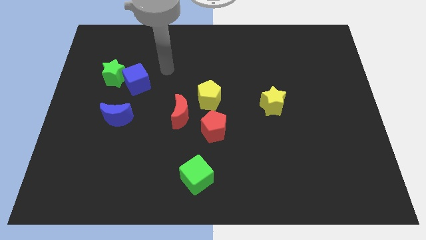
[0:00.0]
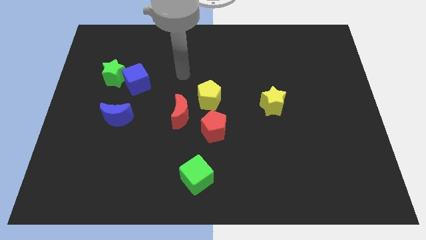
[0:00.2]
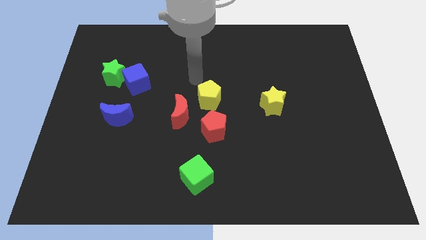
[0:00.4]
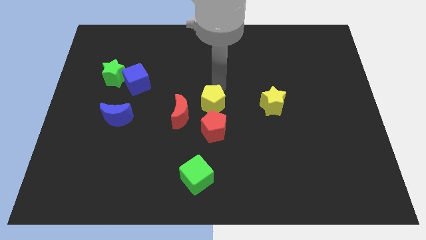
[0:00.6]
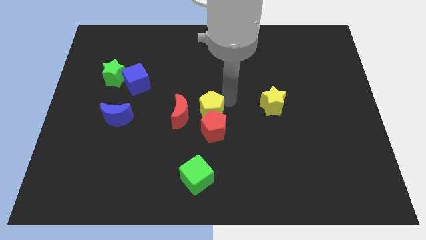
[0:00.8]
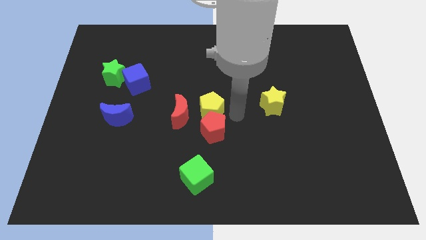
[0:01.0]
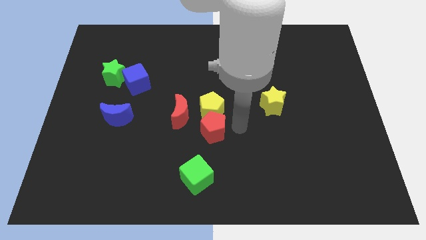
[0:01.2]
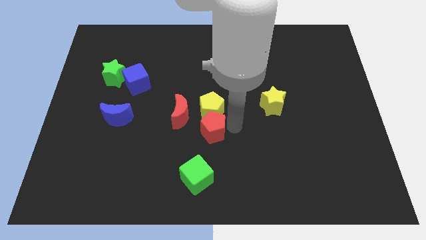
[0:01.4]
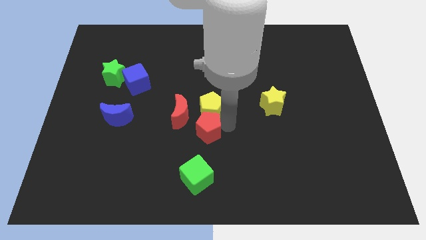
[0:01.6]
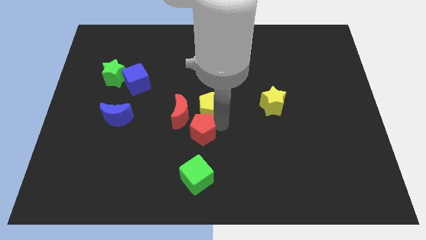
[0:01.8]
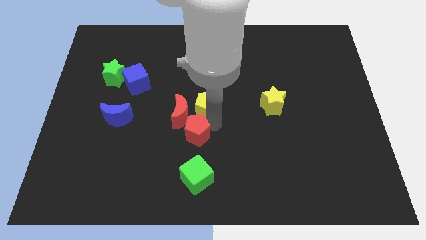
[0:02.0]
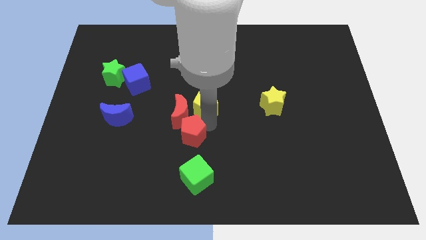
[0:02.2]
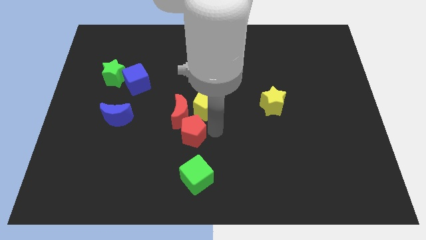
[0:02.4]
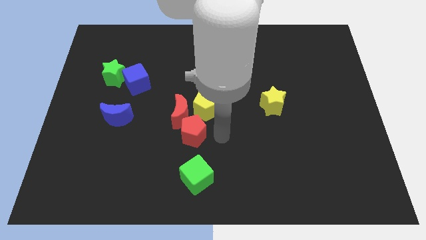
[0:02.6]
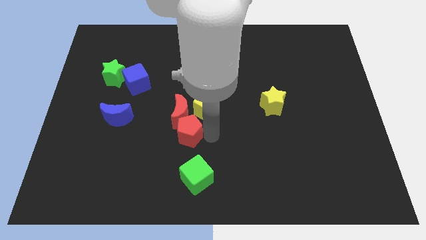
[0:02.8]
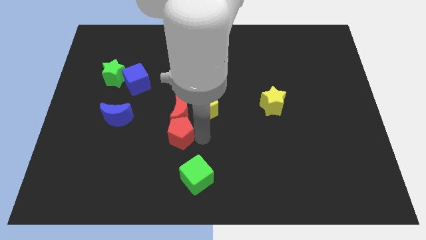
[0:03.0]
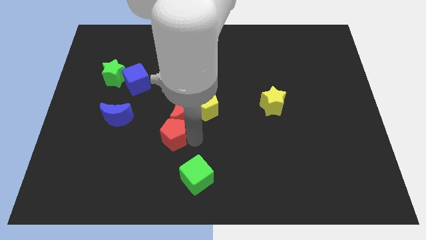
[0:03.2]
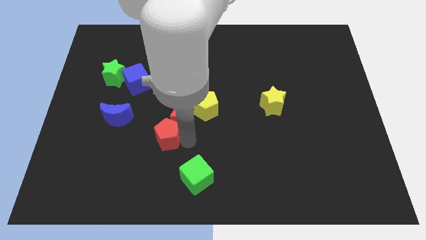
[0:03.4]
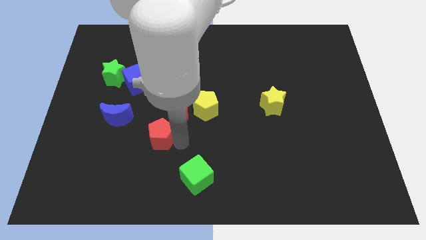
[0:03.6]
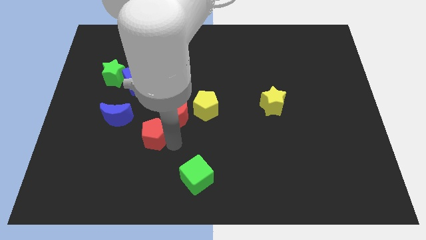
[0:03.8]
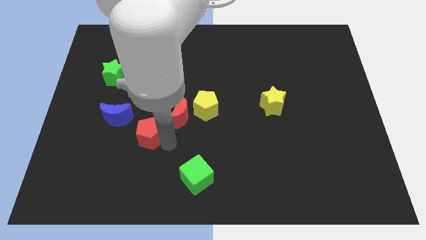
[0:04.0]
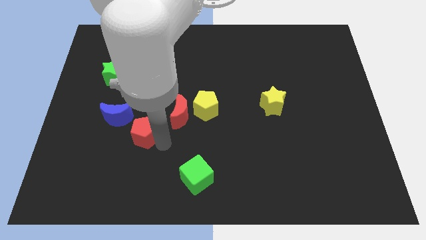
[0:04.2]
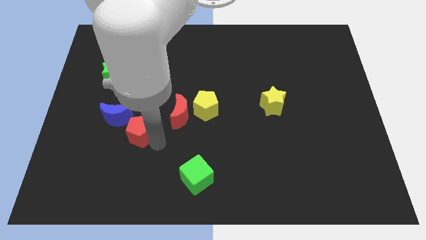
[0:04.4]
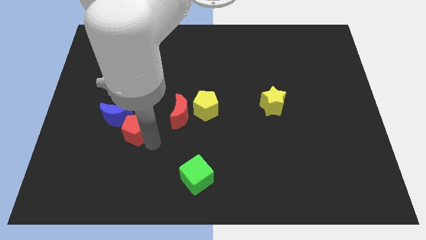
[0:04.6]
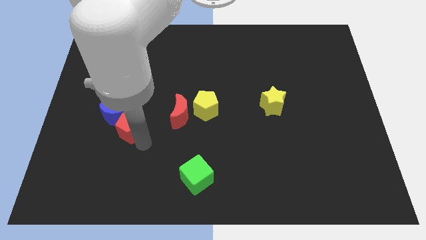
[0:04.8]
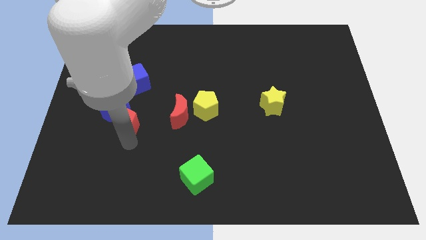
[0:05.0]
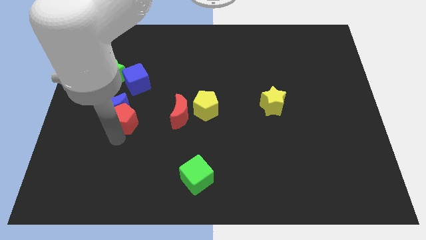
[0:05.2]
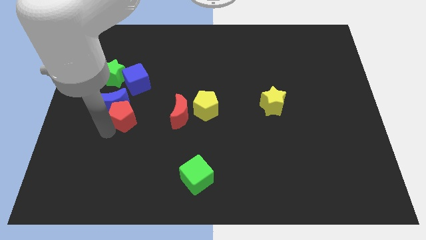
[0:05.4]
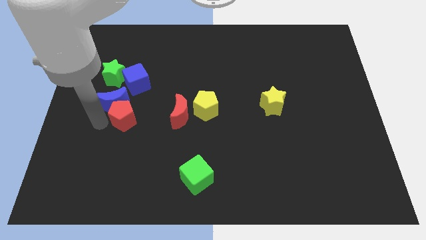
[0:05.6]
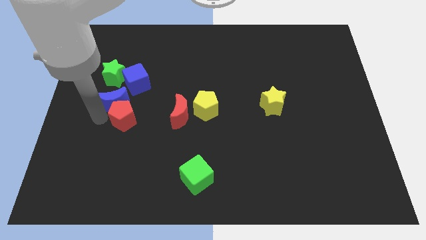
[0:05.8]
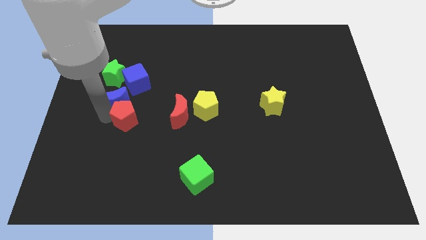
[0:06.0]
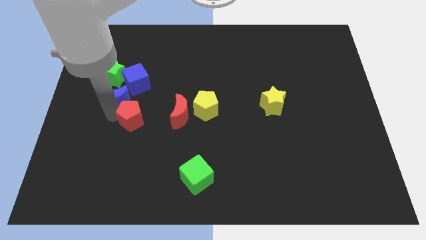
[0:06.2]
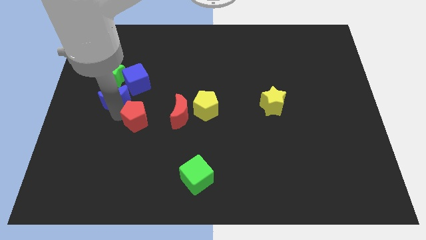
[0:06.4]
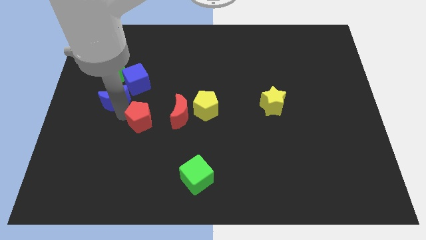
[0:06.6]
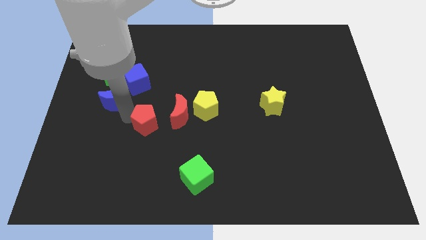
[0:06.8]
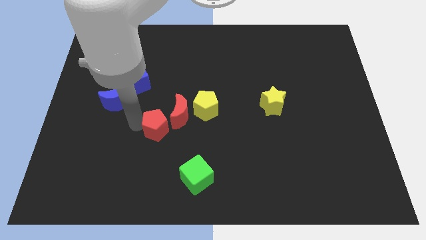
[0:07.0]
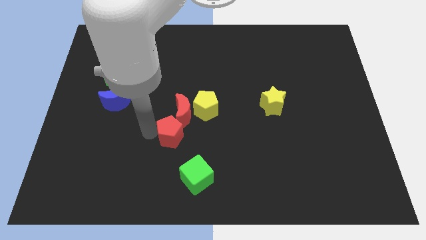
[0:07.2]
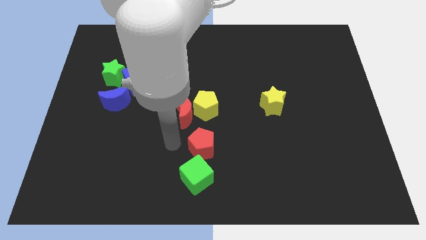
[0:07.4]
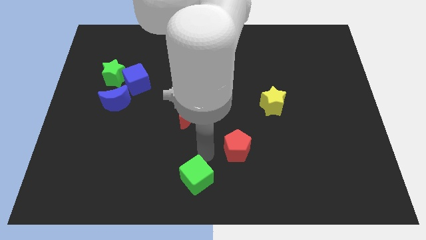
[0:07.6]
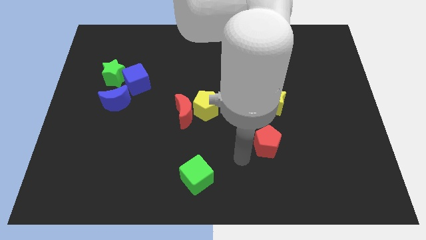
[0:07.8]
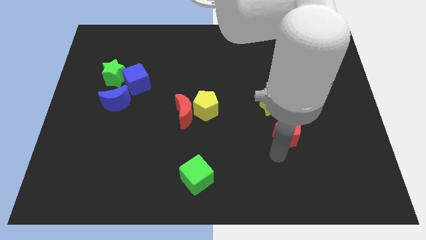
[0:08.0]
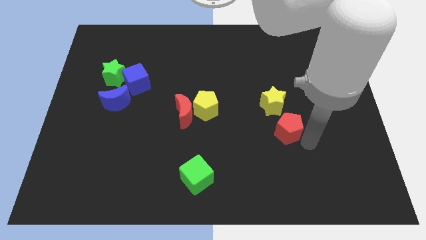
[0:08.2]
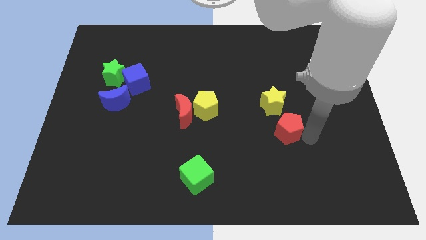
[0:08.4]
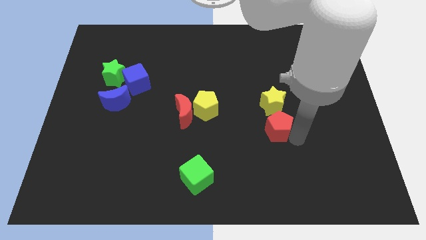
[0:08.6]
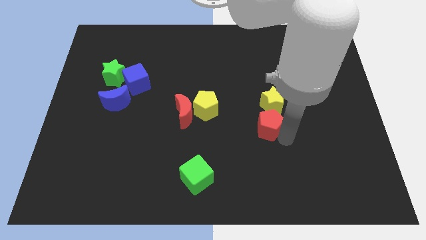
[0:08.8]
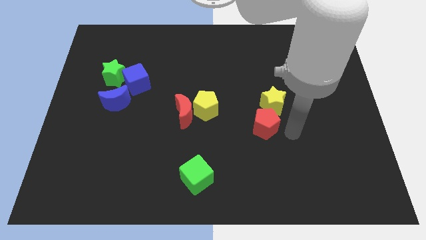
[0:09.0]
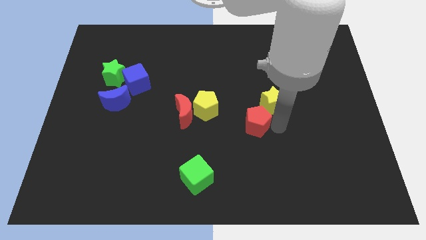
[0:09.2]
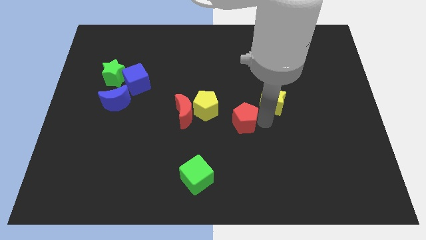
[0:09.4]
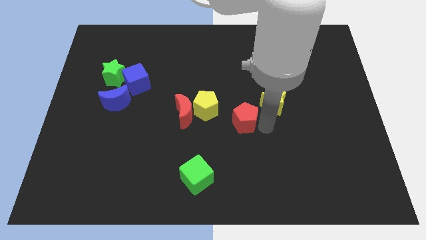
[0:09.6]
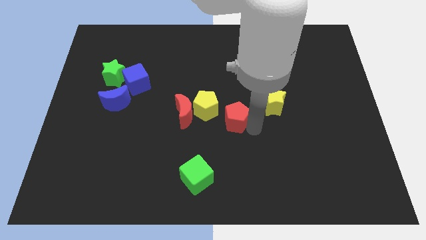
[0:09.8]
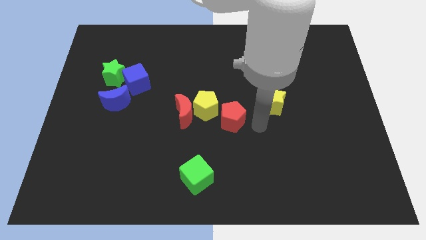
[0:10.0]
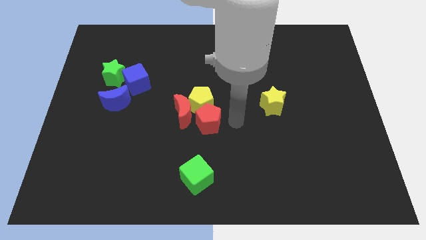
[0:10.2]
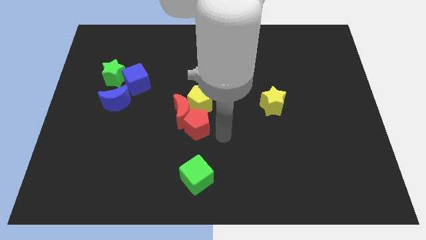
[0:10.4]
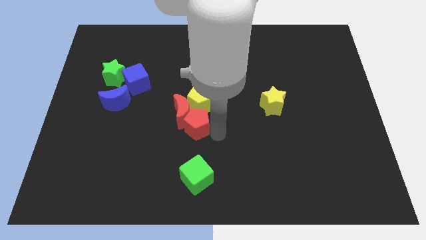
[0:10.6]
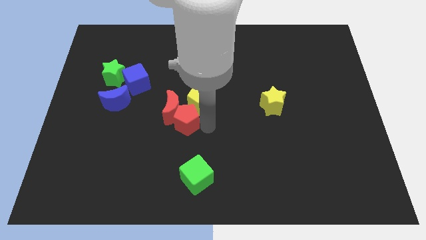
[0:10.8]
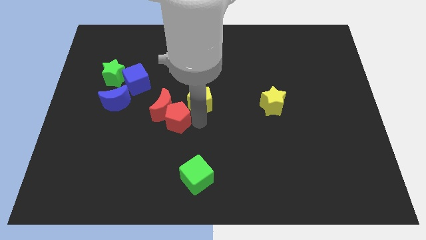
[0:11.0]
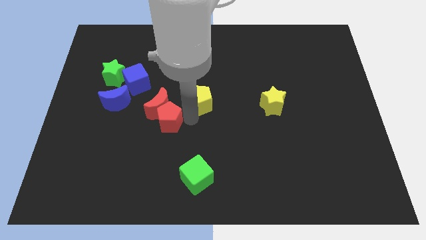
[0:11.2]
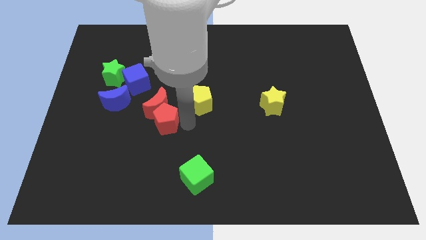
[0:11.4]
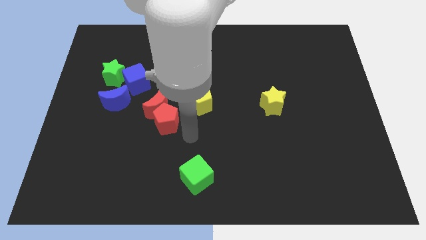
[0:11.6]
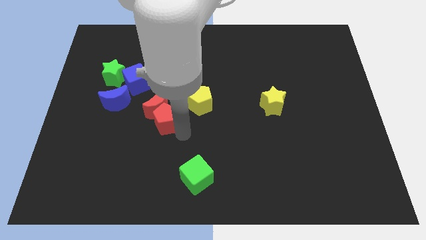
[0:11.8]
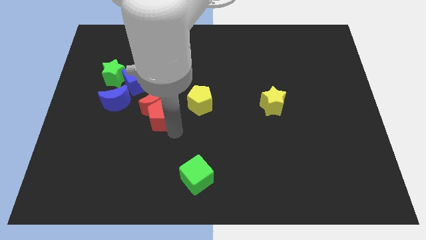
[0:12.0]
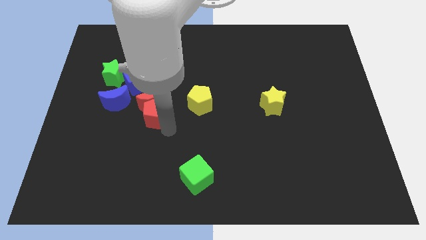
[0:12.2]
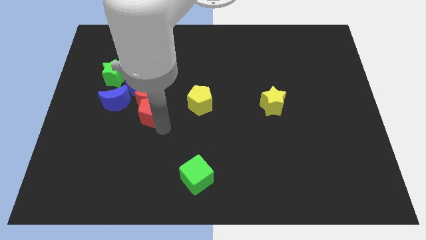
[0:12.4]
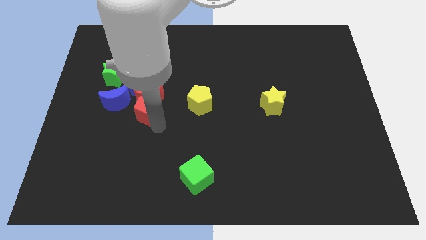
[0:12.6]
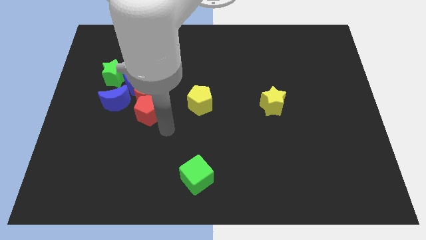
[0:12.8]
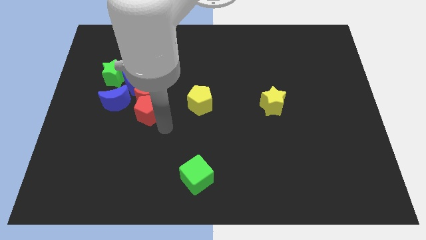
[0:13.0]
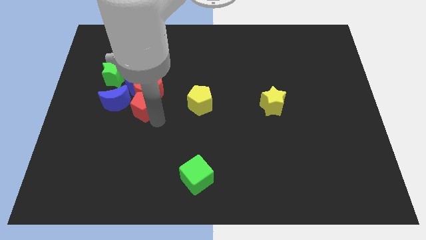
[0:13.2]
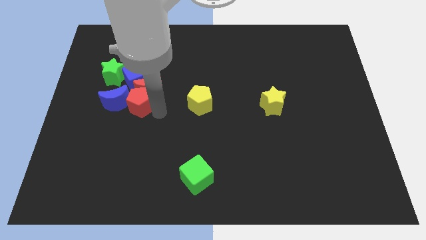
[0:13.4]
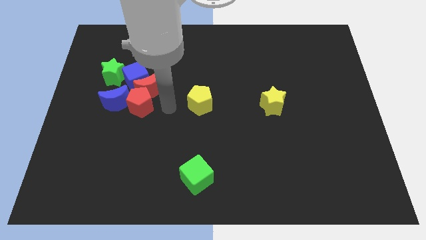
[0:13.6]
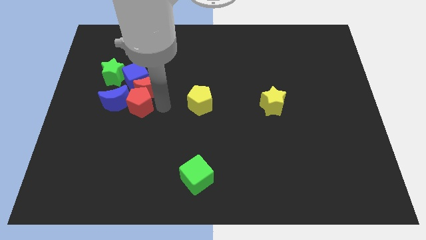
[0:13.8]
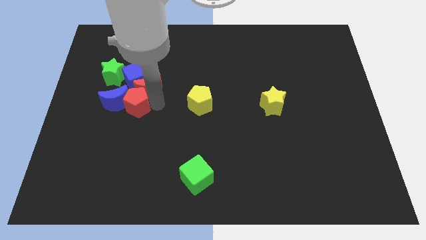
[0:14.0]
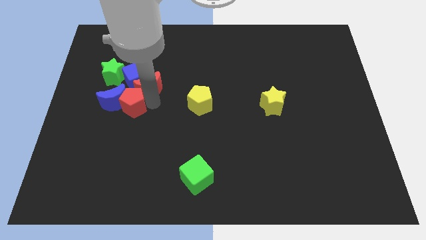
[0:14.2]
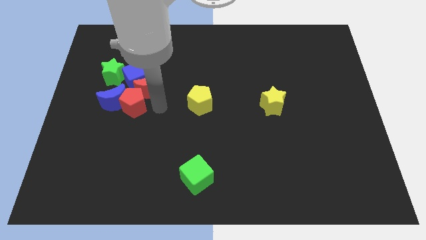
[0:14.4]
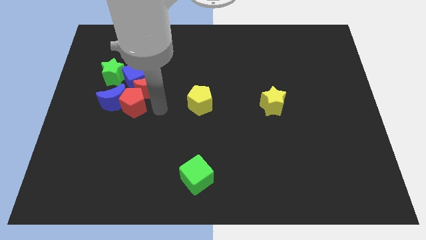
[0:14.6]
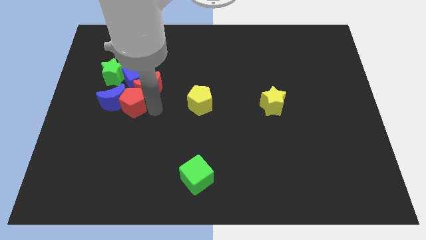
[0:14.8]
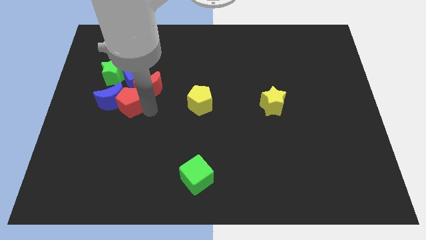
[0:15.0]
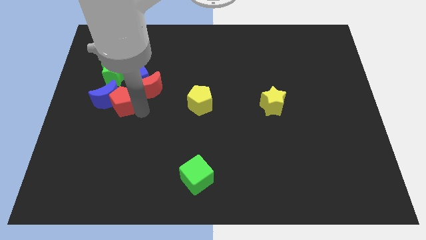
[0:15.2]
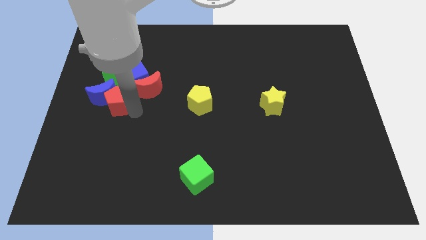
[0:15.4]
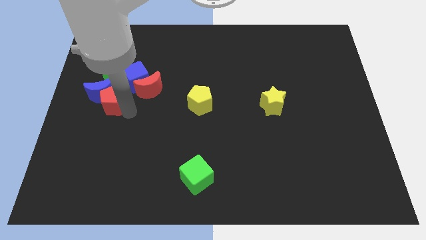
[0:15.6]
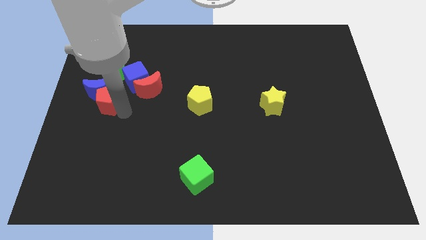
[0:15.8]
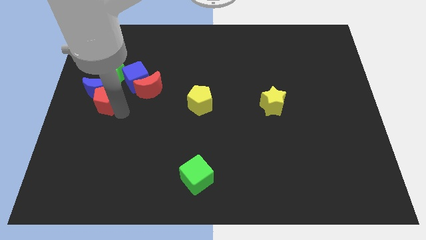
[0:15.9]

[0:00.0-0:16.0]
push the red pentagon to the center left
